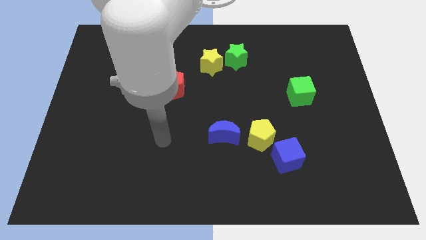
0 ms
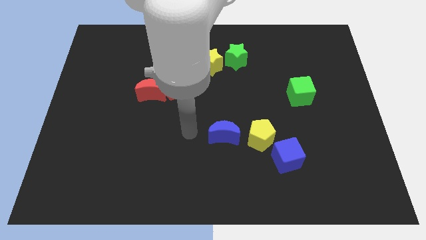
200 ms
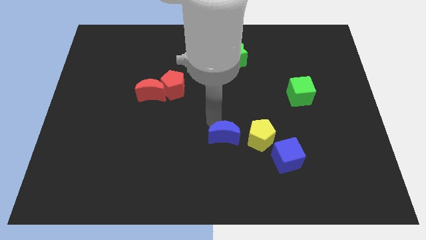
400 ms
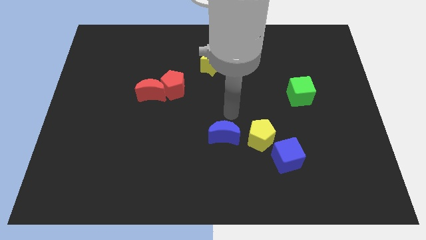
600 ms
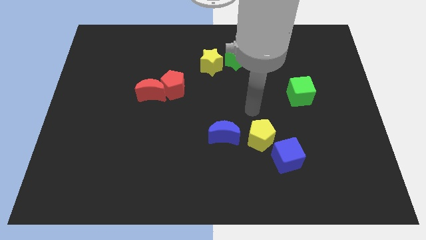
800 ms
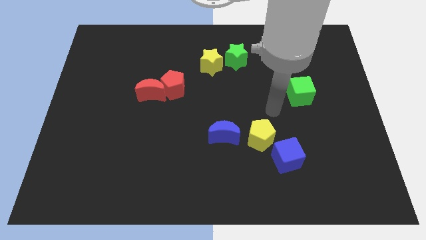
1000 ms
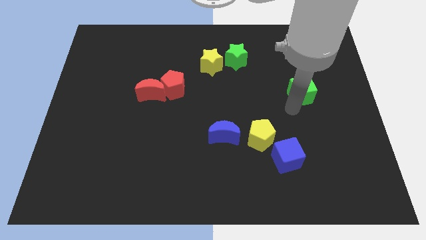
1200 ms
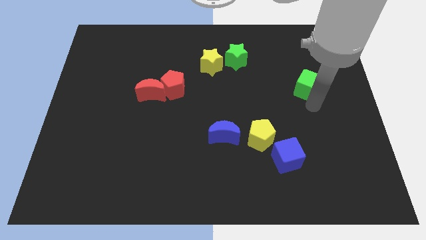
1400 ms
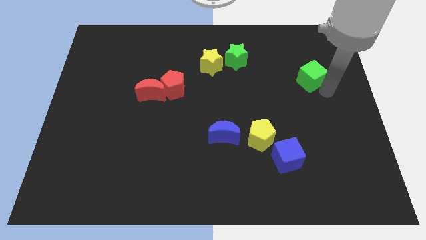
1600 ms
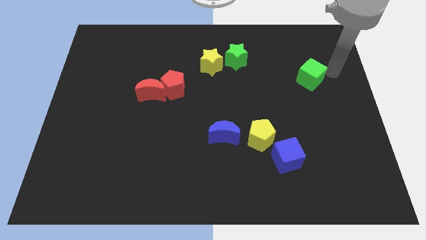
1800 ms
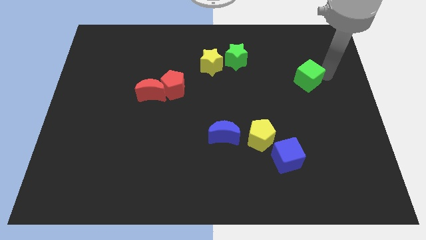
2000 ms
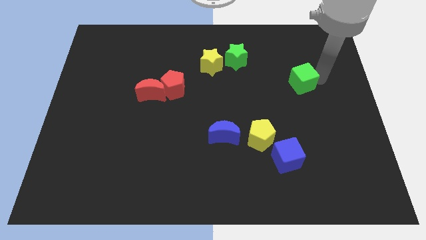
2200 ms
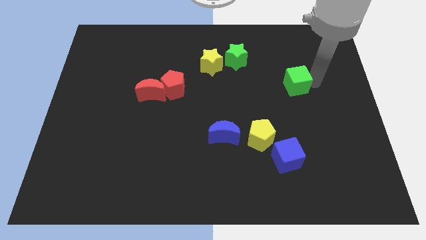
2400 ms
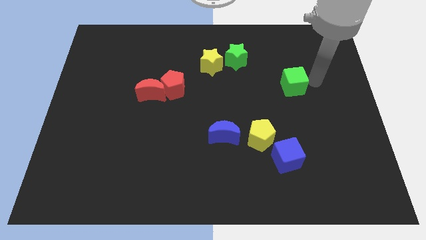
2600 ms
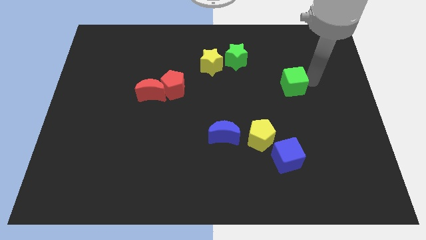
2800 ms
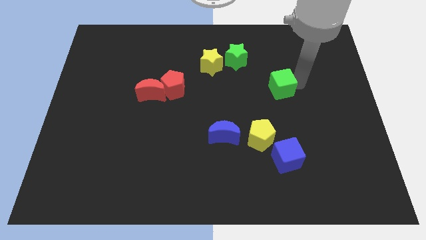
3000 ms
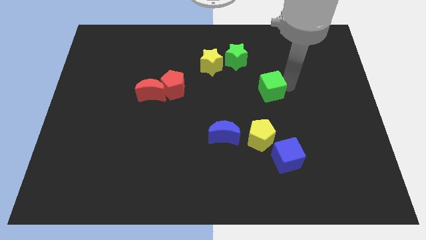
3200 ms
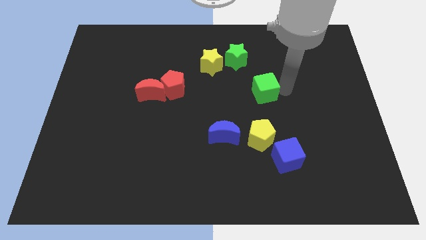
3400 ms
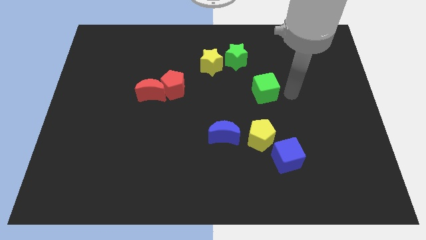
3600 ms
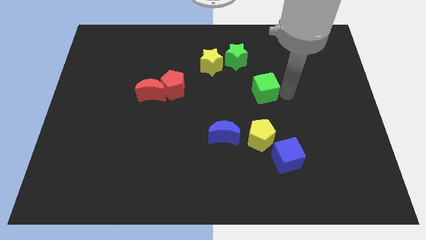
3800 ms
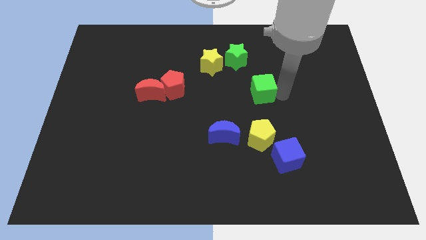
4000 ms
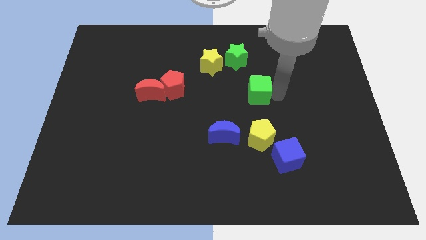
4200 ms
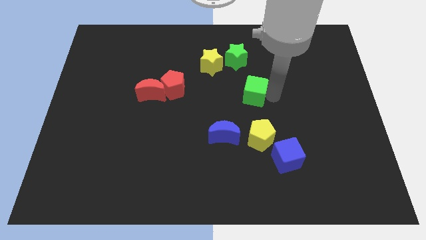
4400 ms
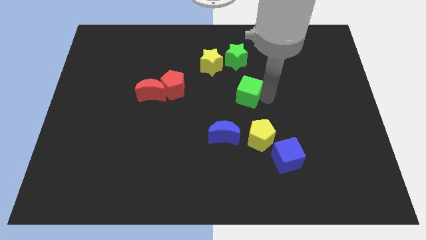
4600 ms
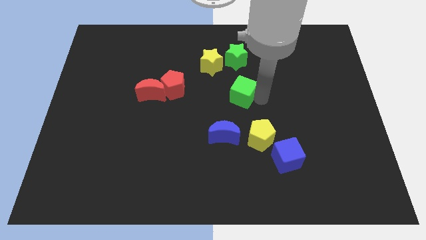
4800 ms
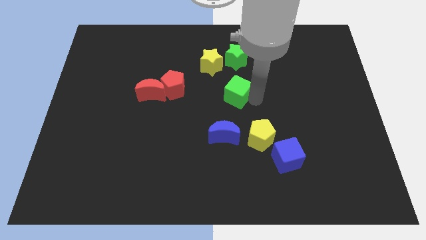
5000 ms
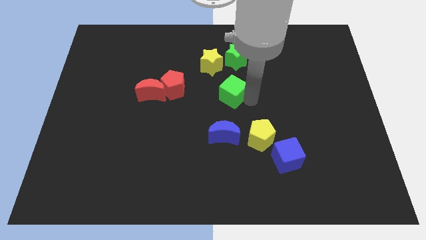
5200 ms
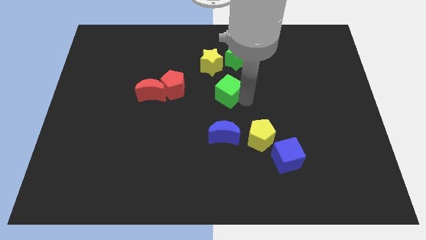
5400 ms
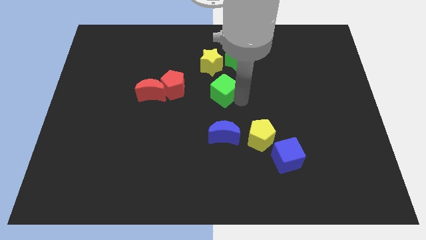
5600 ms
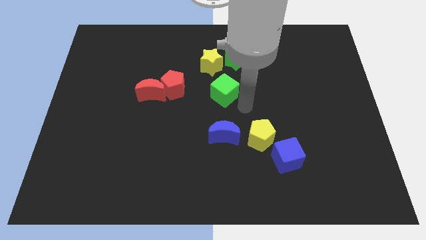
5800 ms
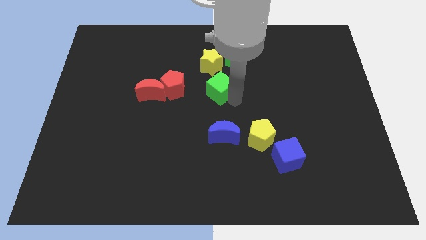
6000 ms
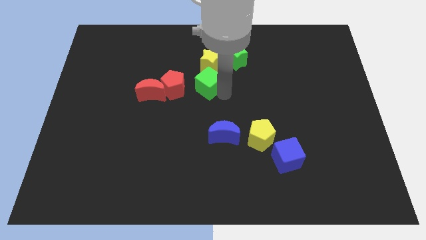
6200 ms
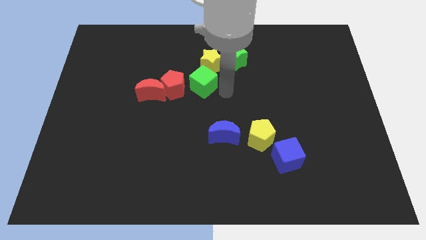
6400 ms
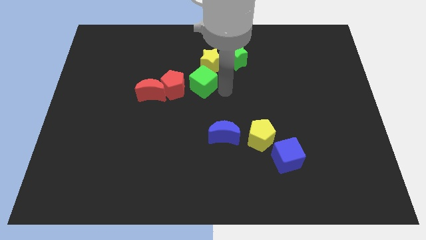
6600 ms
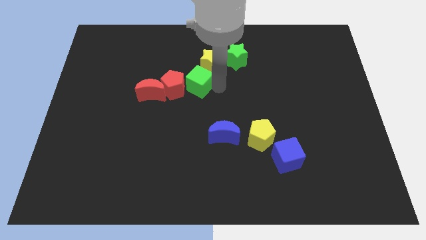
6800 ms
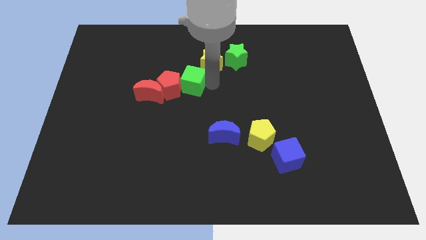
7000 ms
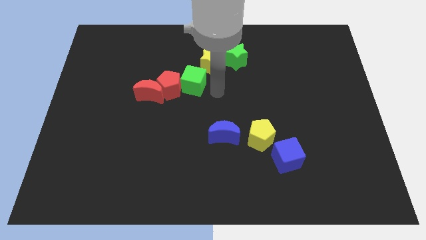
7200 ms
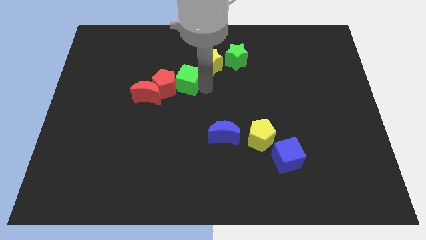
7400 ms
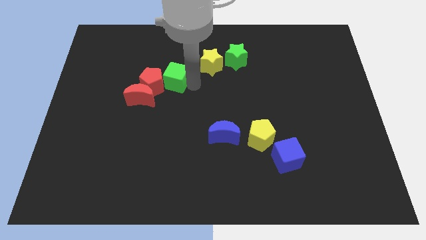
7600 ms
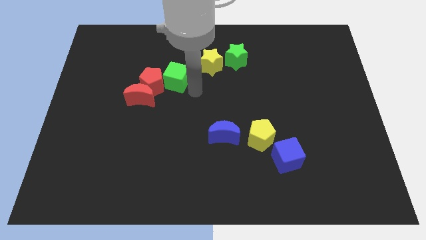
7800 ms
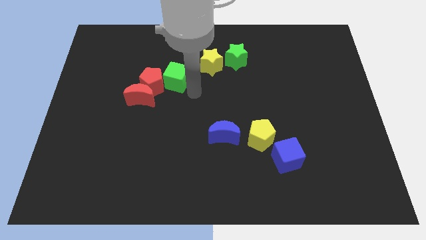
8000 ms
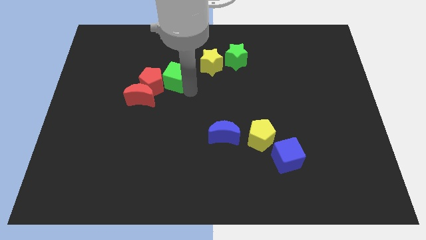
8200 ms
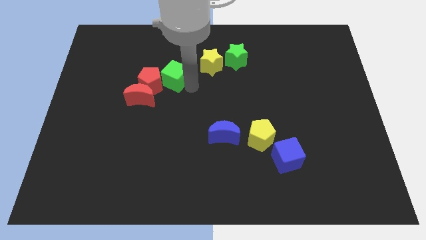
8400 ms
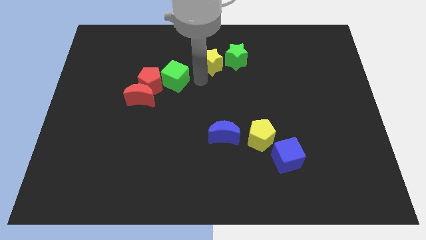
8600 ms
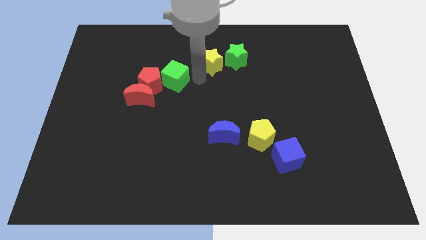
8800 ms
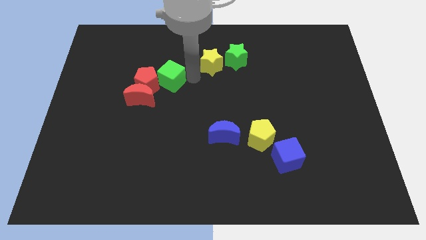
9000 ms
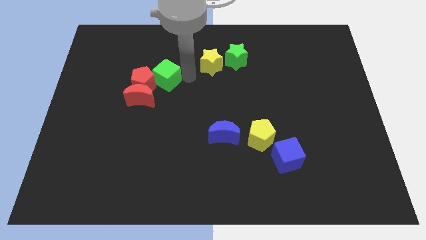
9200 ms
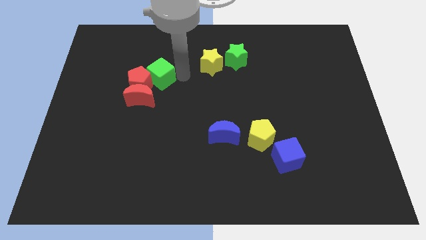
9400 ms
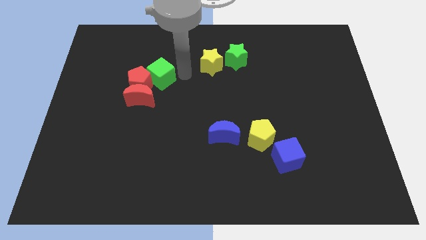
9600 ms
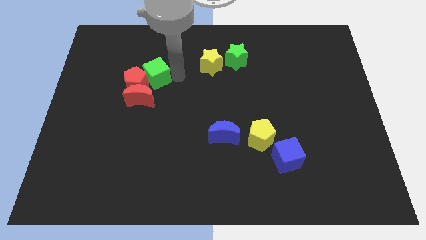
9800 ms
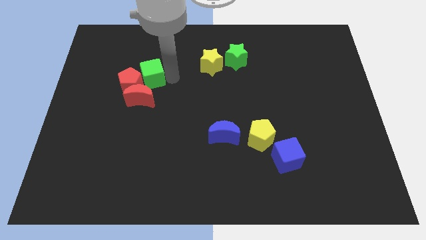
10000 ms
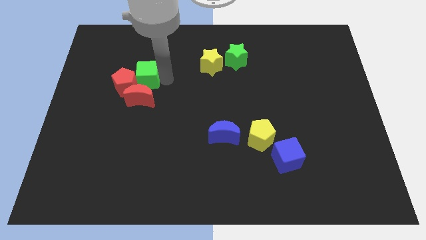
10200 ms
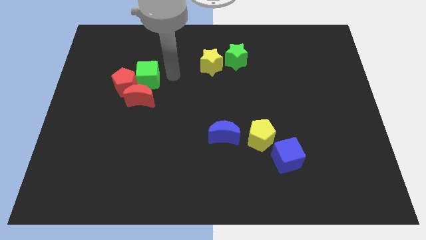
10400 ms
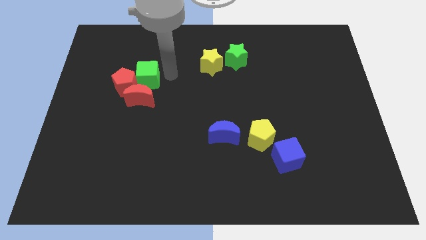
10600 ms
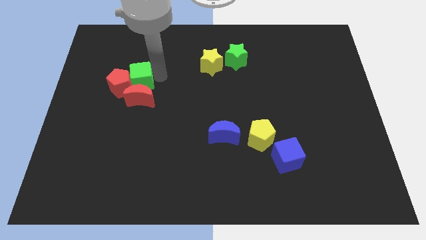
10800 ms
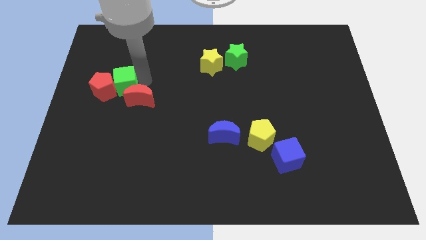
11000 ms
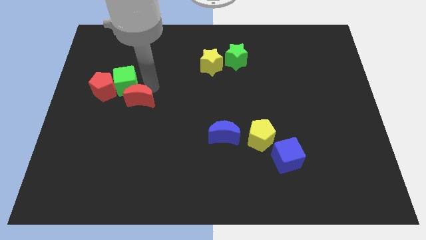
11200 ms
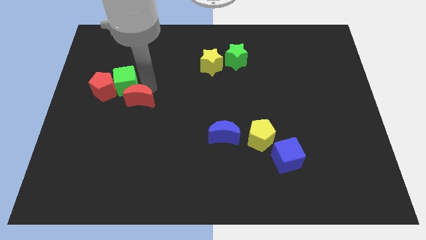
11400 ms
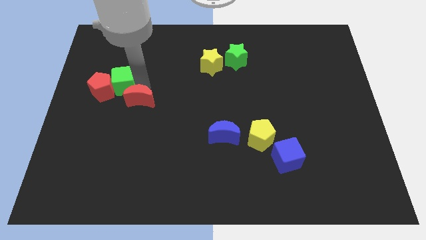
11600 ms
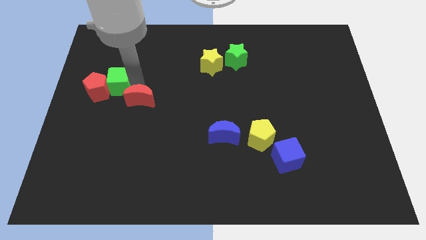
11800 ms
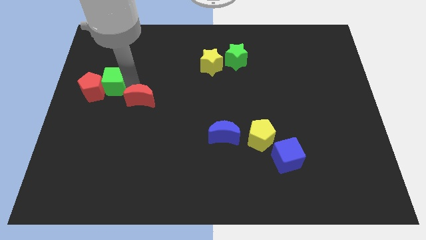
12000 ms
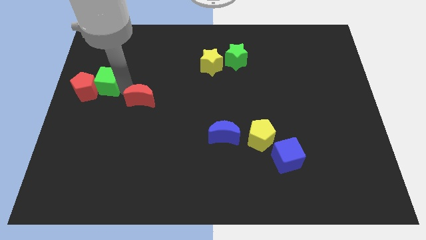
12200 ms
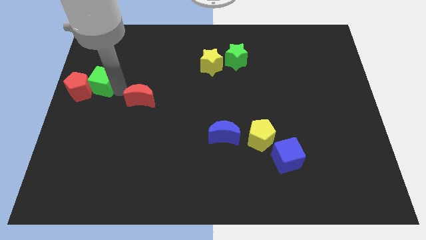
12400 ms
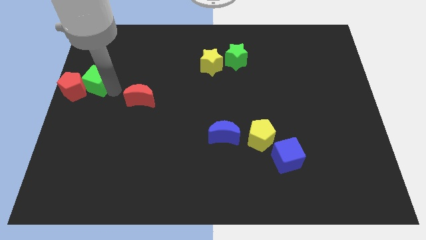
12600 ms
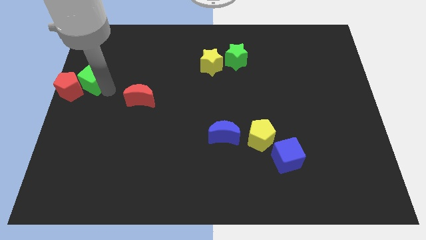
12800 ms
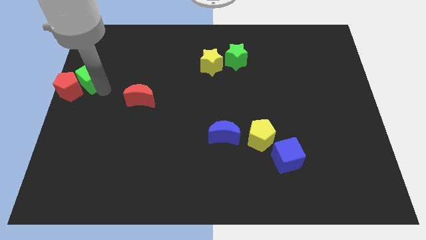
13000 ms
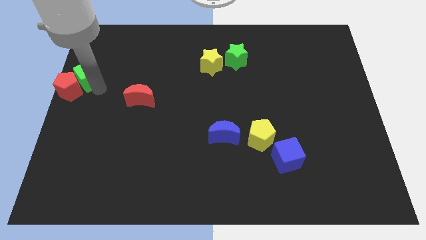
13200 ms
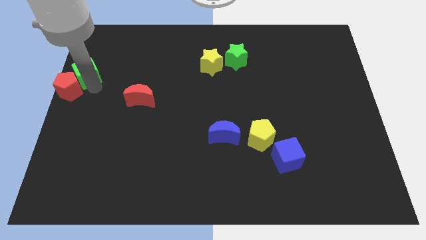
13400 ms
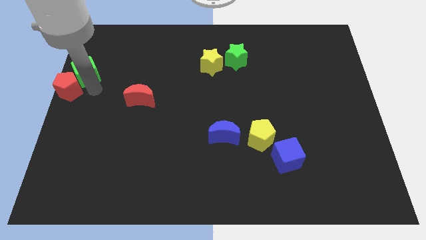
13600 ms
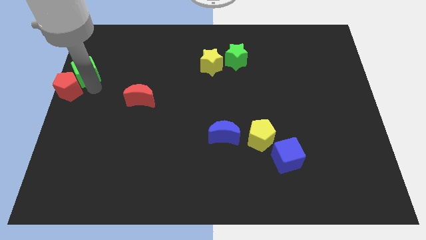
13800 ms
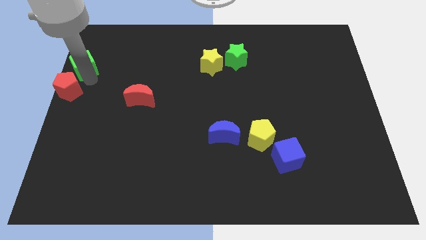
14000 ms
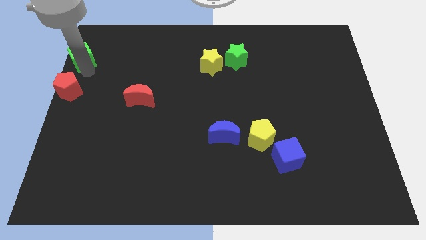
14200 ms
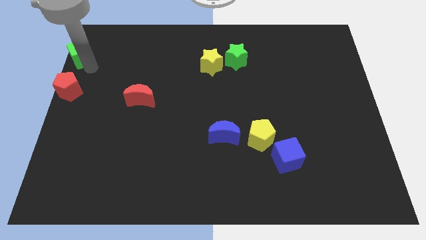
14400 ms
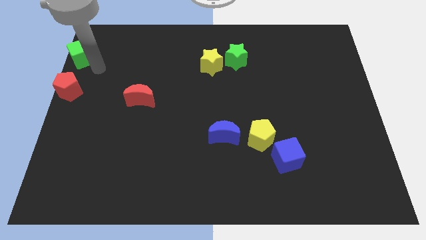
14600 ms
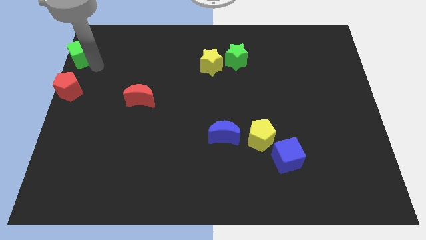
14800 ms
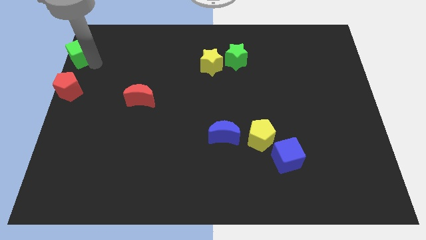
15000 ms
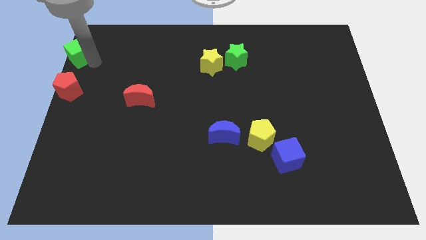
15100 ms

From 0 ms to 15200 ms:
move the green cube to the upper left corner
